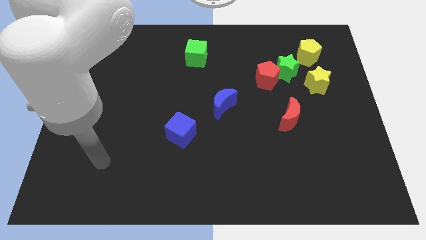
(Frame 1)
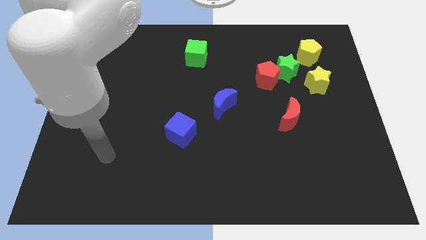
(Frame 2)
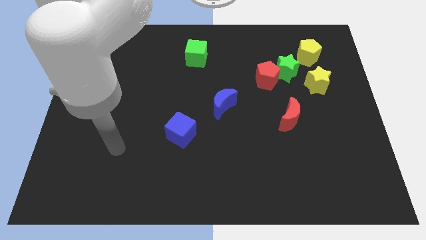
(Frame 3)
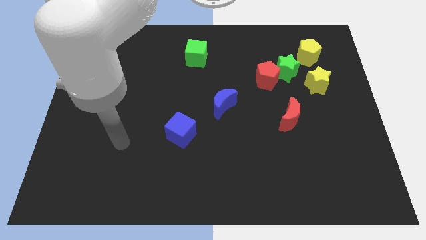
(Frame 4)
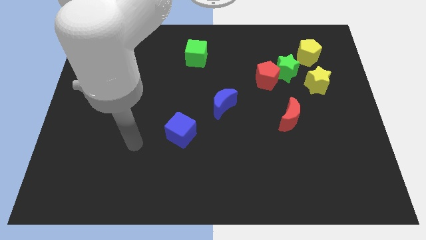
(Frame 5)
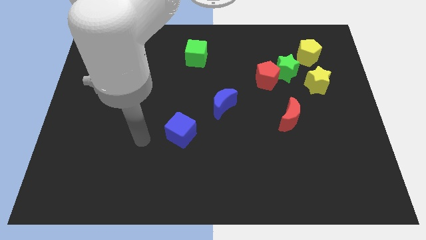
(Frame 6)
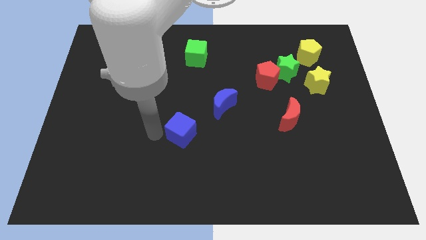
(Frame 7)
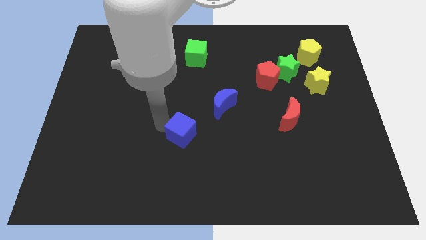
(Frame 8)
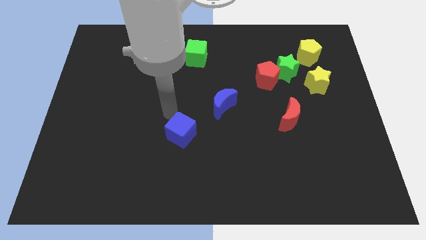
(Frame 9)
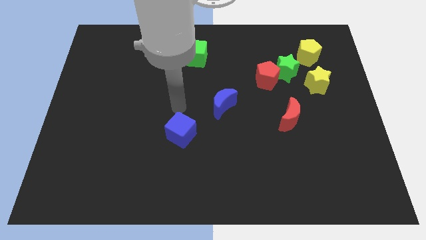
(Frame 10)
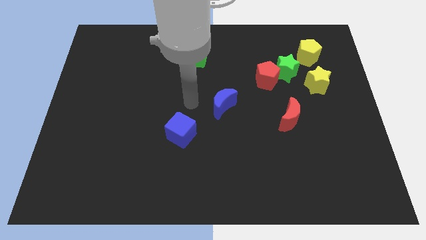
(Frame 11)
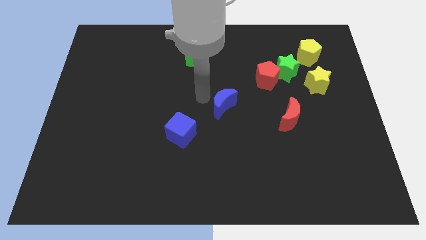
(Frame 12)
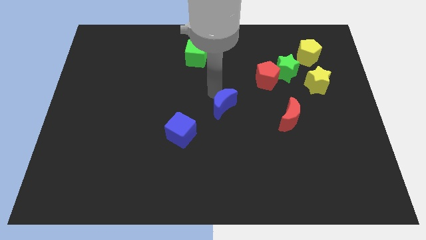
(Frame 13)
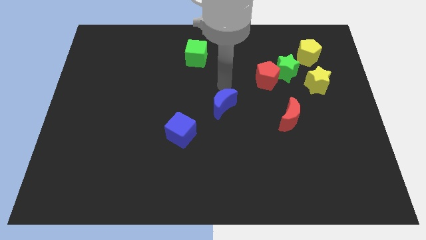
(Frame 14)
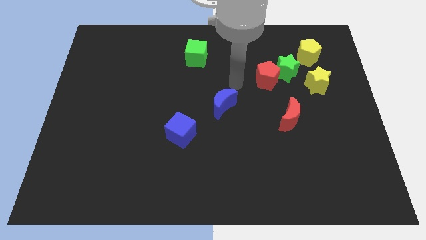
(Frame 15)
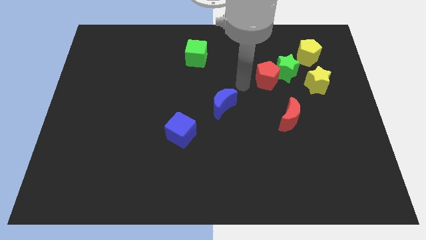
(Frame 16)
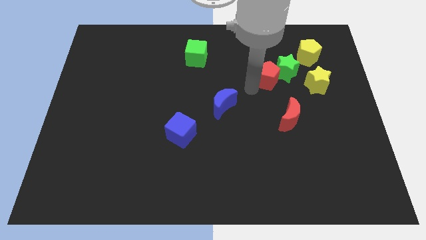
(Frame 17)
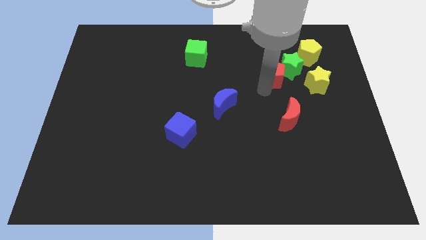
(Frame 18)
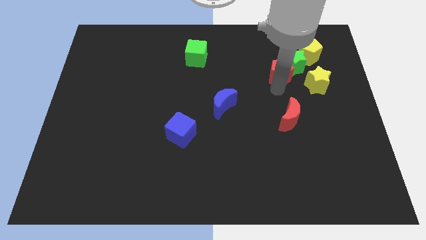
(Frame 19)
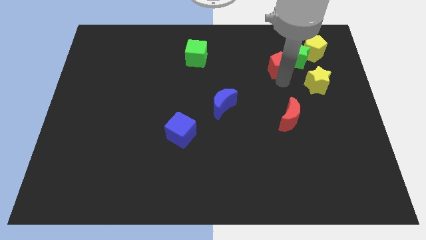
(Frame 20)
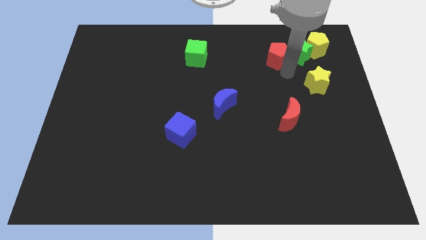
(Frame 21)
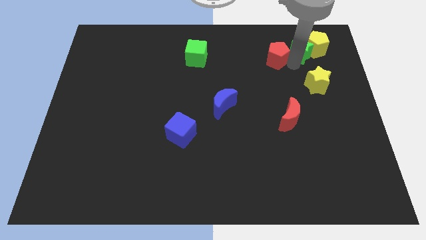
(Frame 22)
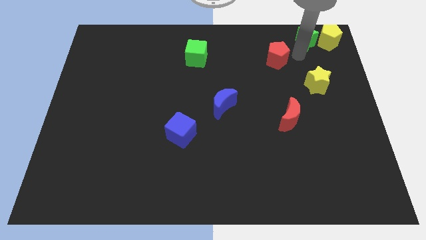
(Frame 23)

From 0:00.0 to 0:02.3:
separate the red pentagon from the green star

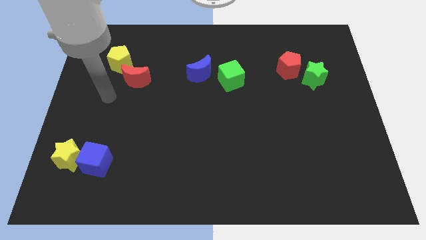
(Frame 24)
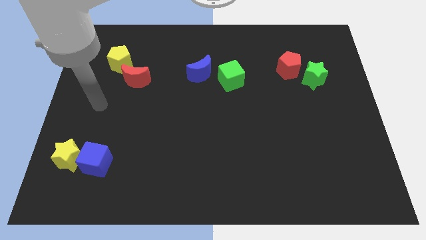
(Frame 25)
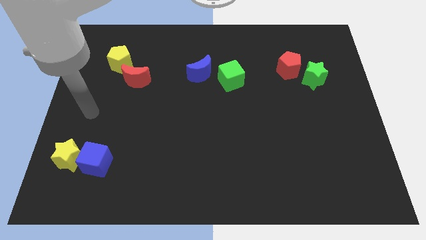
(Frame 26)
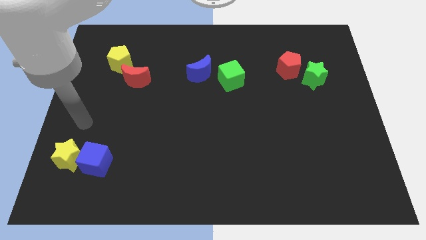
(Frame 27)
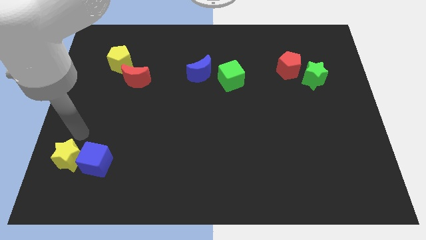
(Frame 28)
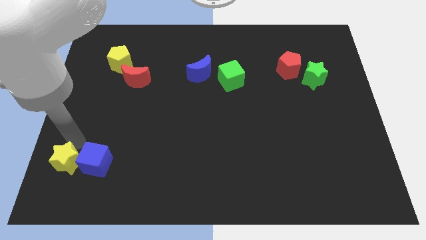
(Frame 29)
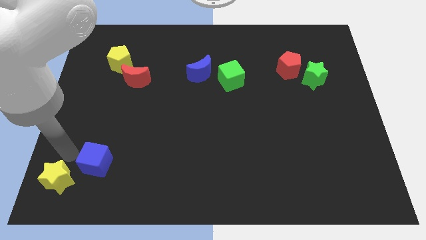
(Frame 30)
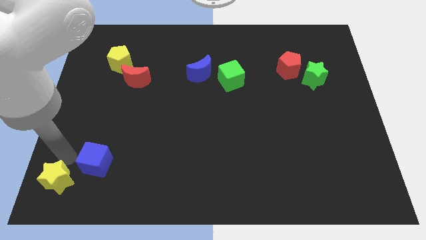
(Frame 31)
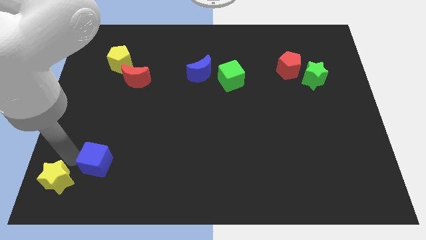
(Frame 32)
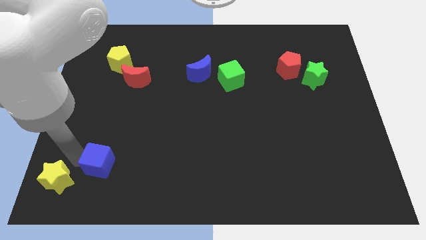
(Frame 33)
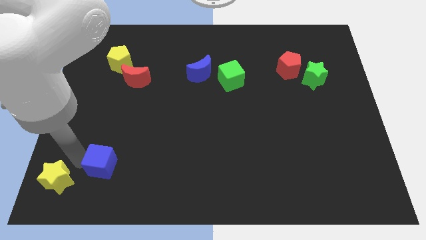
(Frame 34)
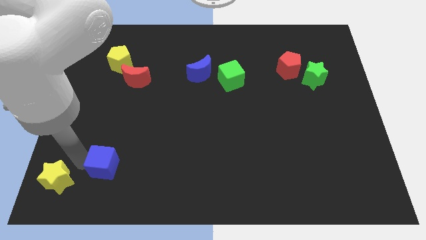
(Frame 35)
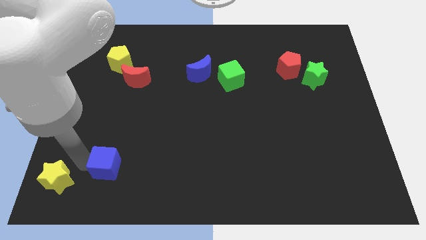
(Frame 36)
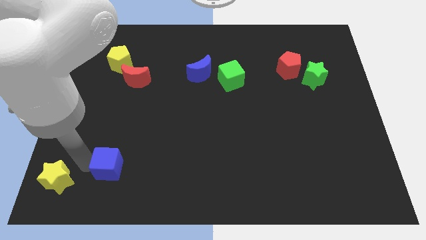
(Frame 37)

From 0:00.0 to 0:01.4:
move the blue cube away from the yellow star

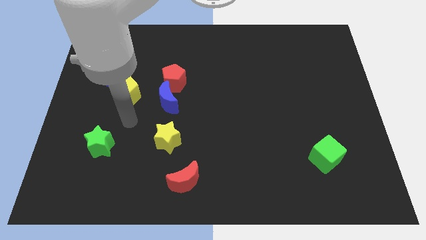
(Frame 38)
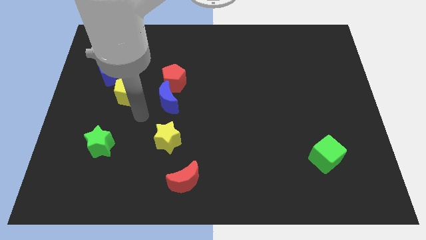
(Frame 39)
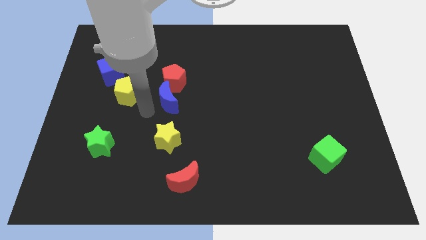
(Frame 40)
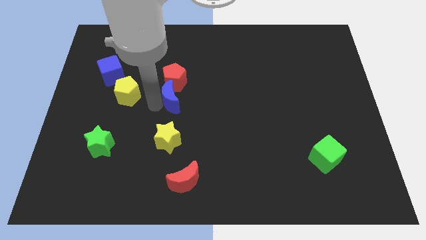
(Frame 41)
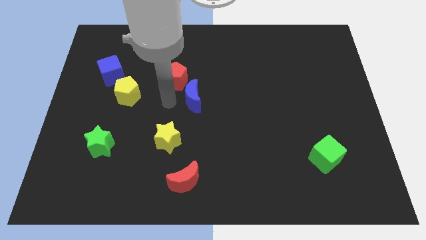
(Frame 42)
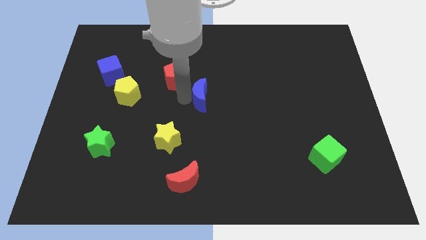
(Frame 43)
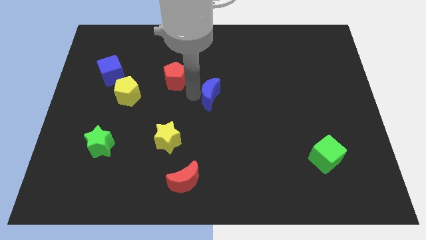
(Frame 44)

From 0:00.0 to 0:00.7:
pull the red pentagon apart from the blue moon

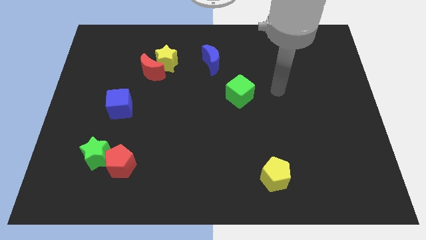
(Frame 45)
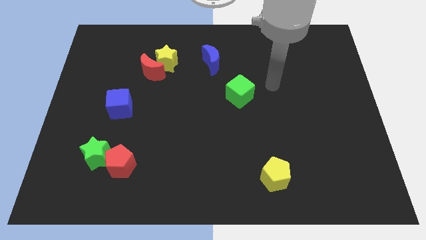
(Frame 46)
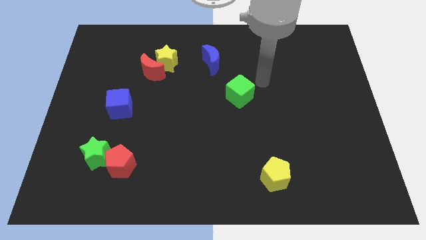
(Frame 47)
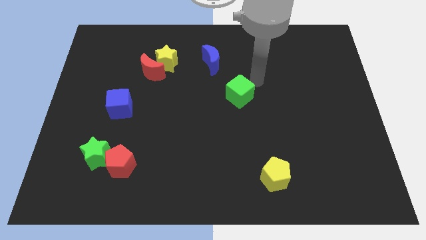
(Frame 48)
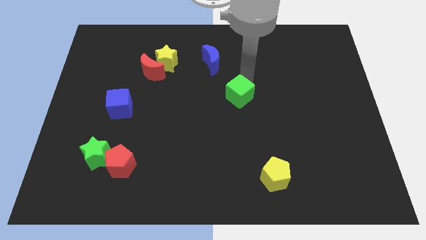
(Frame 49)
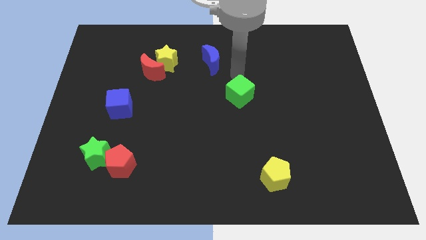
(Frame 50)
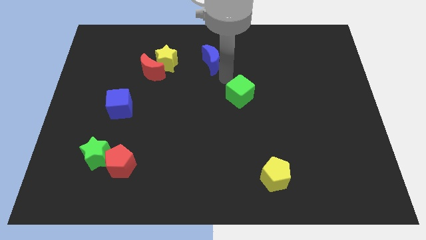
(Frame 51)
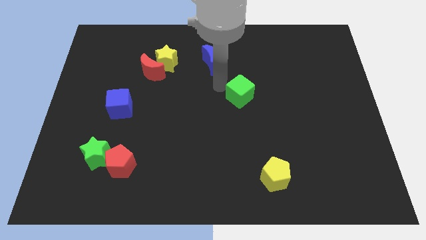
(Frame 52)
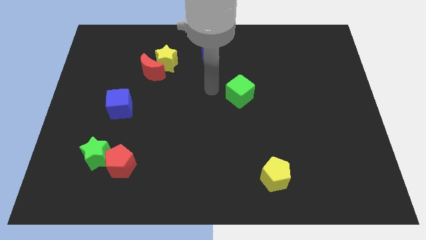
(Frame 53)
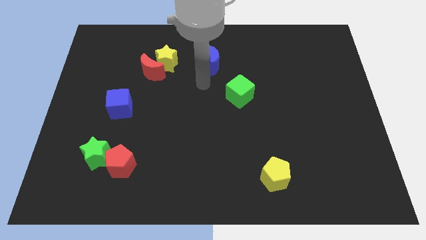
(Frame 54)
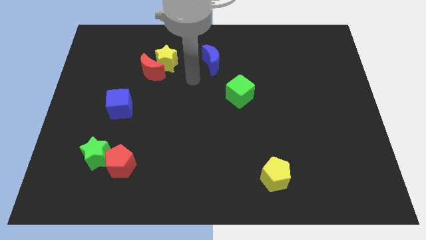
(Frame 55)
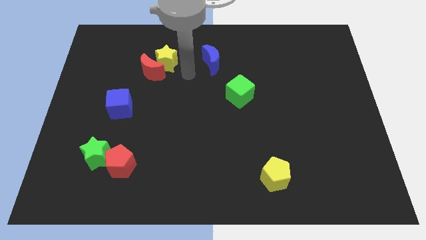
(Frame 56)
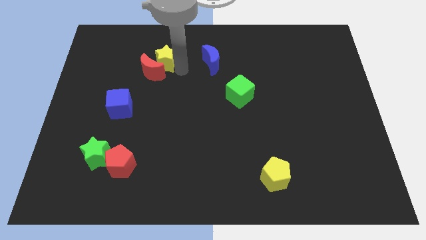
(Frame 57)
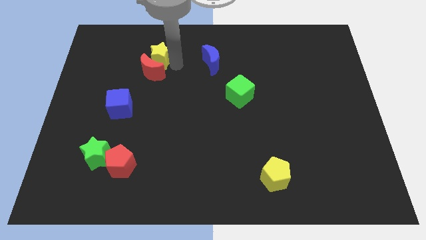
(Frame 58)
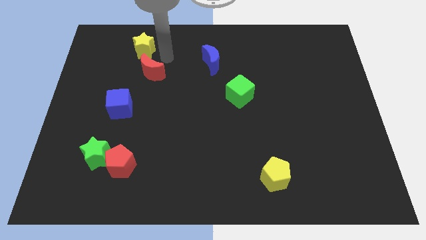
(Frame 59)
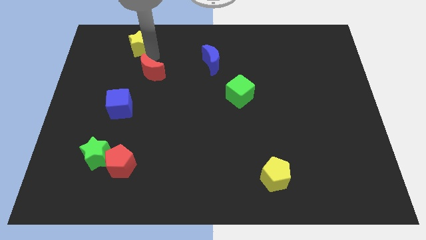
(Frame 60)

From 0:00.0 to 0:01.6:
pull the red moon apart from the yellow star

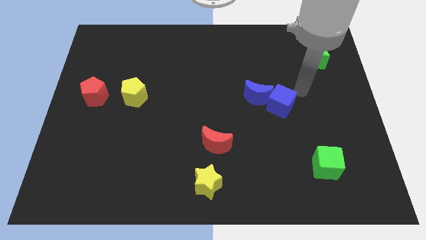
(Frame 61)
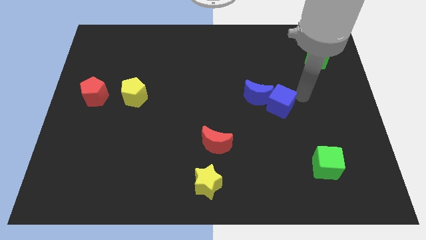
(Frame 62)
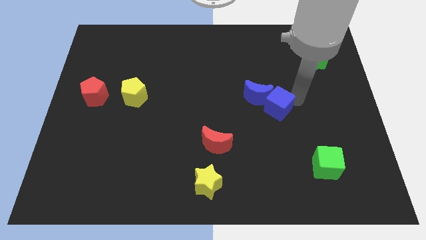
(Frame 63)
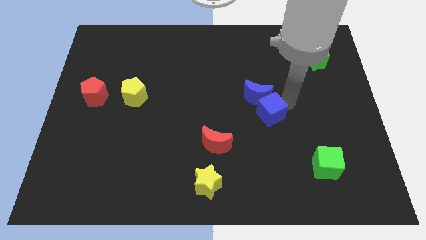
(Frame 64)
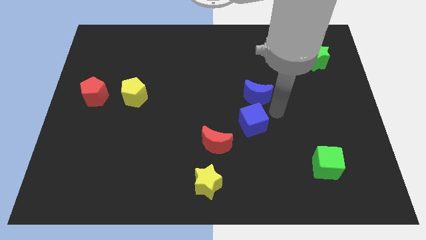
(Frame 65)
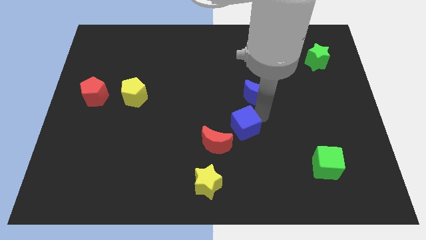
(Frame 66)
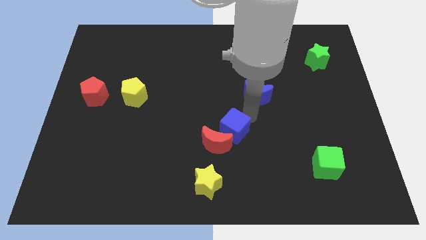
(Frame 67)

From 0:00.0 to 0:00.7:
move the blue moon away from the blue cube

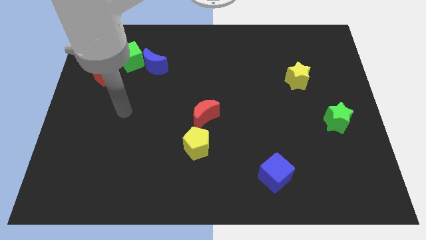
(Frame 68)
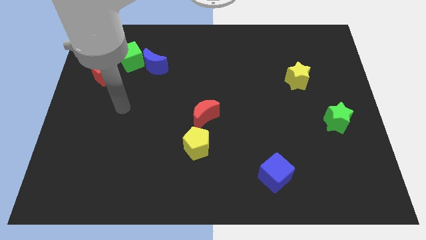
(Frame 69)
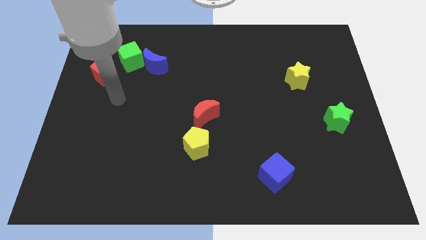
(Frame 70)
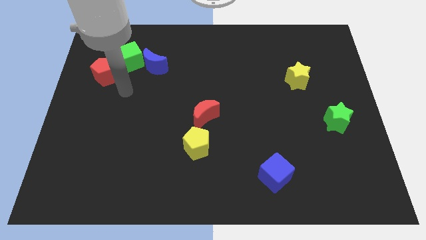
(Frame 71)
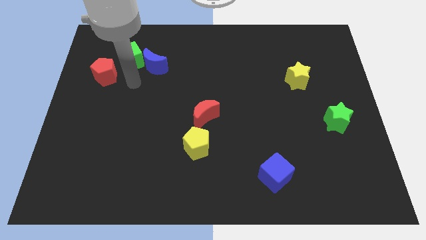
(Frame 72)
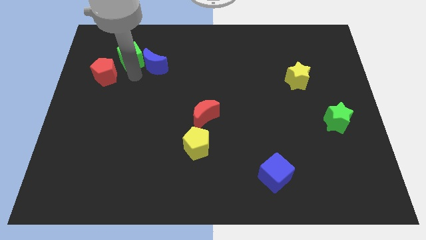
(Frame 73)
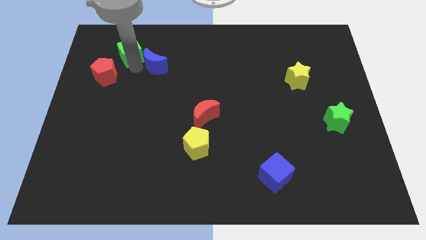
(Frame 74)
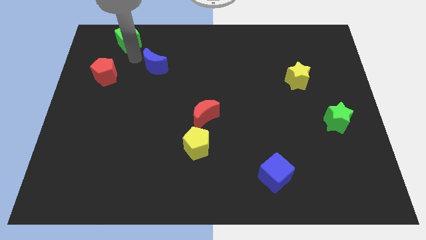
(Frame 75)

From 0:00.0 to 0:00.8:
pull the blue moon apart from the green cube

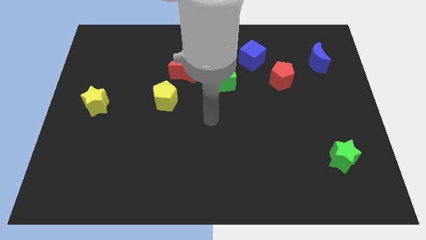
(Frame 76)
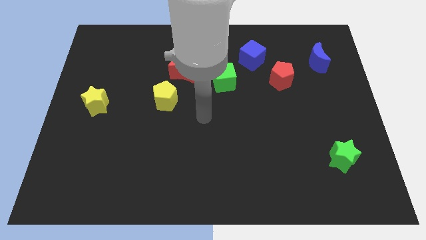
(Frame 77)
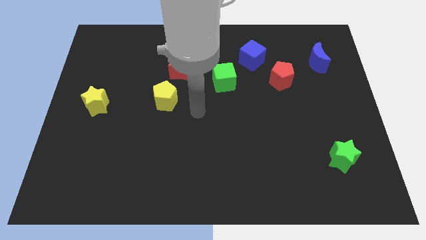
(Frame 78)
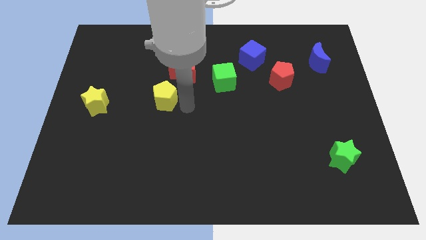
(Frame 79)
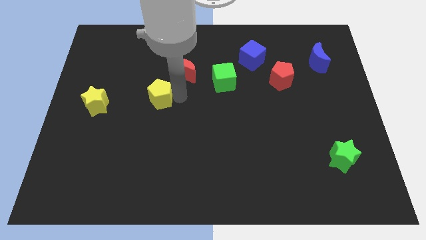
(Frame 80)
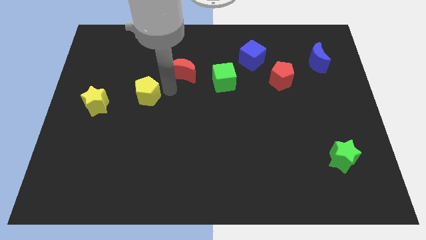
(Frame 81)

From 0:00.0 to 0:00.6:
pull the red moon apart from the yellow pentagon

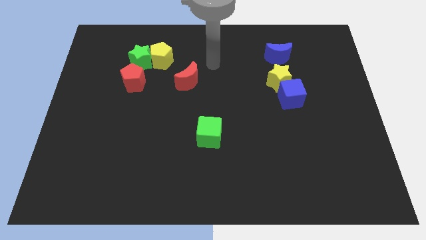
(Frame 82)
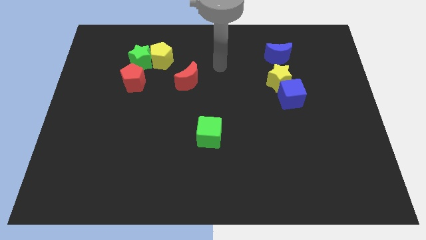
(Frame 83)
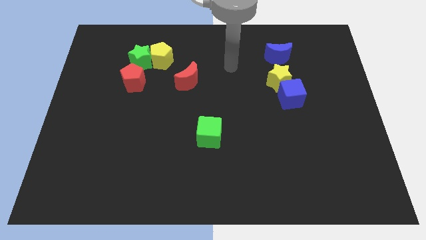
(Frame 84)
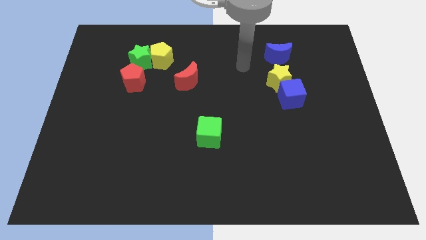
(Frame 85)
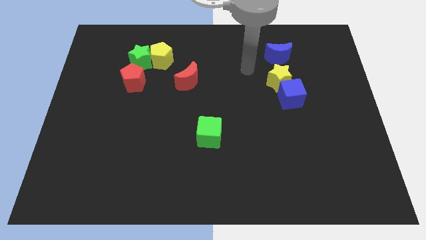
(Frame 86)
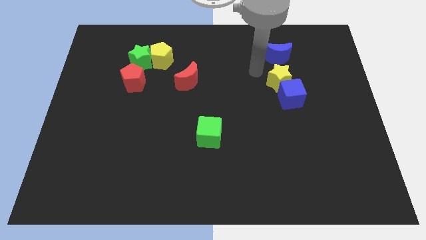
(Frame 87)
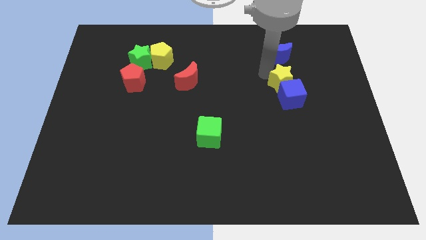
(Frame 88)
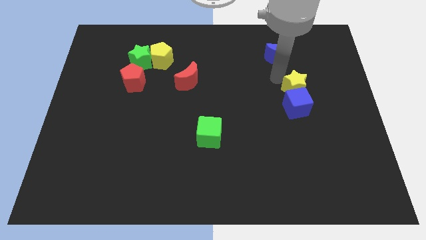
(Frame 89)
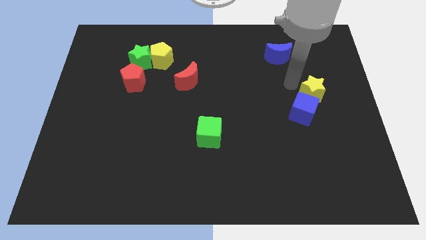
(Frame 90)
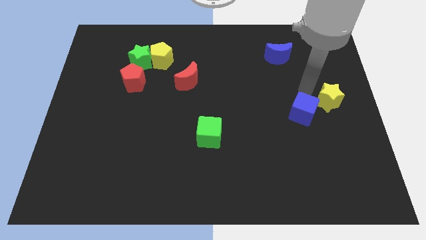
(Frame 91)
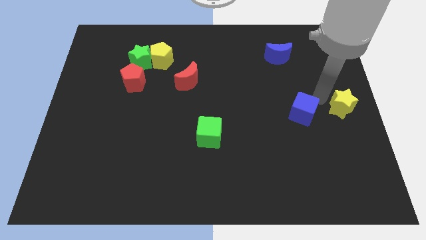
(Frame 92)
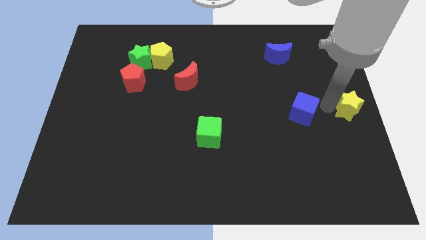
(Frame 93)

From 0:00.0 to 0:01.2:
separate the blue cube from the yellow star
